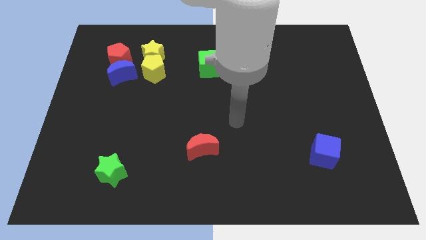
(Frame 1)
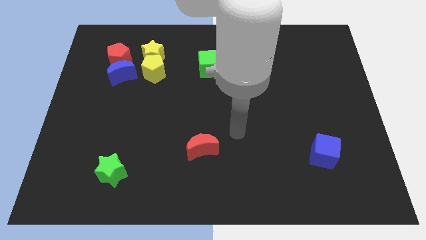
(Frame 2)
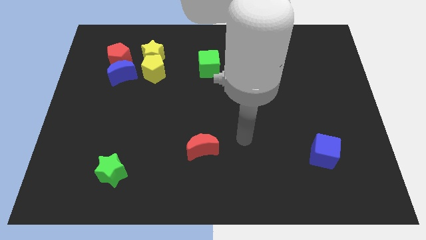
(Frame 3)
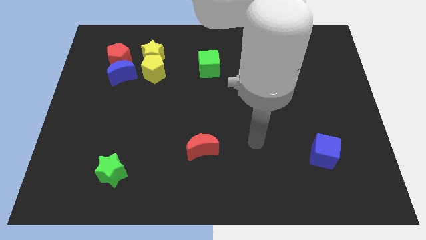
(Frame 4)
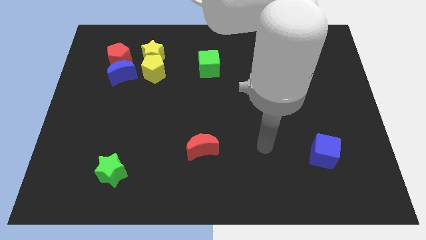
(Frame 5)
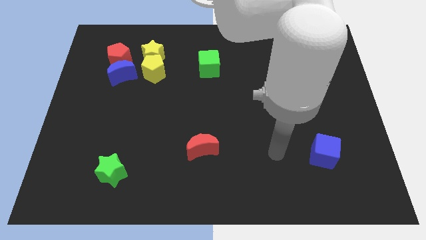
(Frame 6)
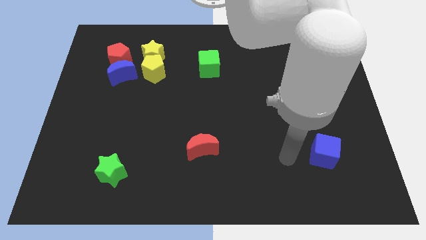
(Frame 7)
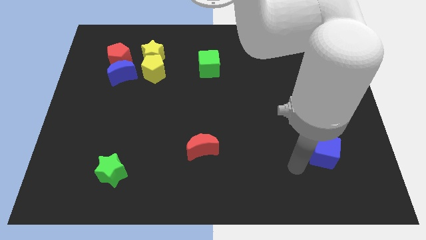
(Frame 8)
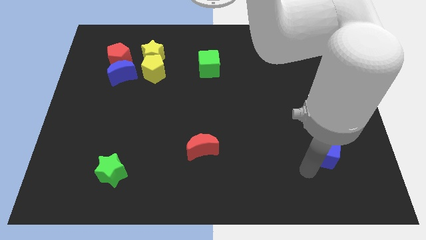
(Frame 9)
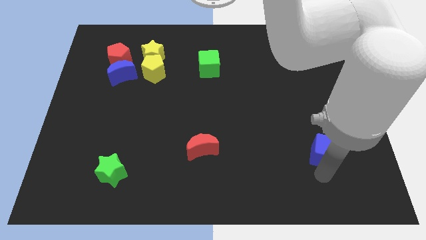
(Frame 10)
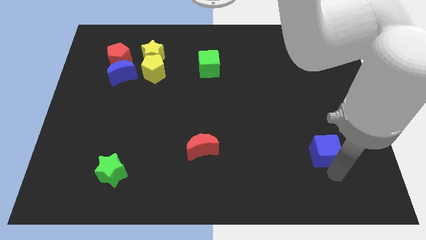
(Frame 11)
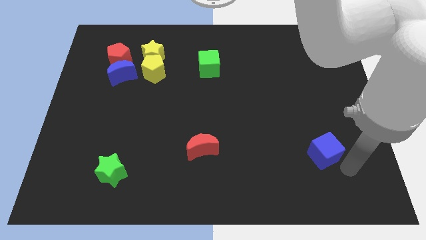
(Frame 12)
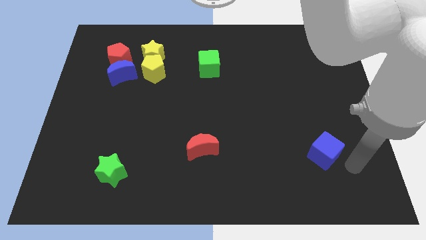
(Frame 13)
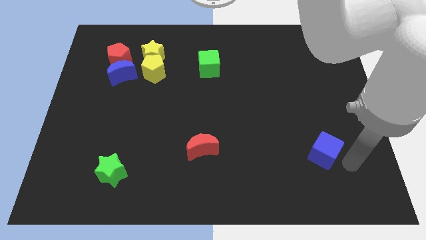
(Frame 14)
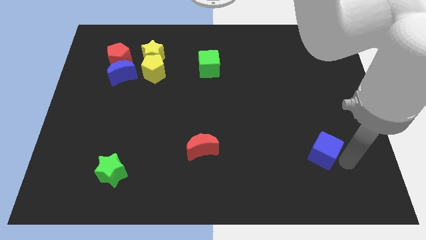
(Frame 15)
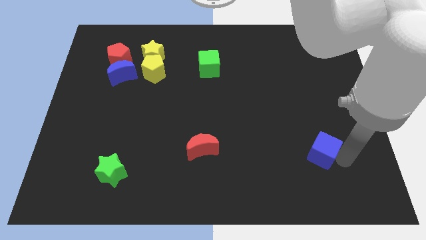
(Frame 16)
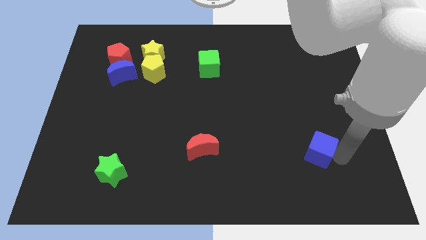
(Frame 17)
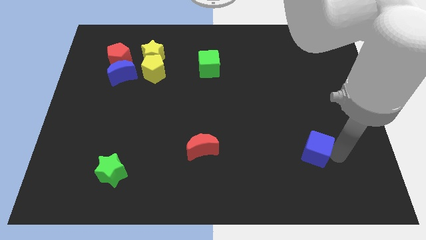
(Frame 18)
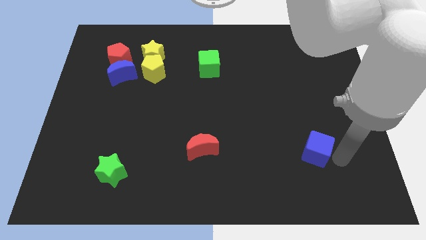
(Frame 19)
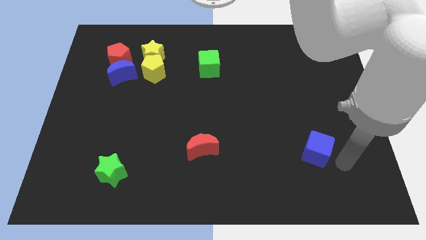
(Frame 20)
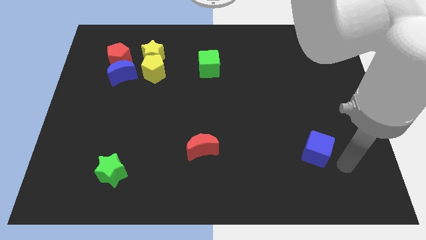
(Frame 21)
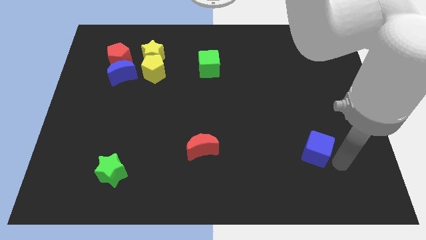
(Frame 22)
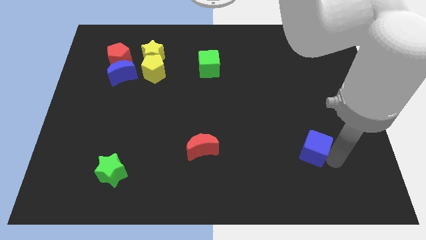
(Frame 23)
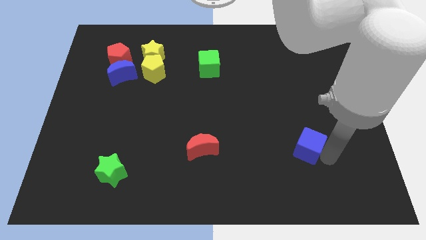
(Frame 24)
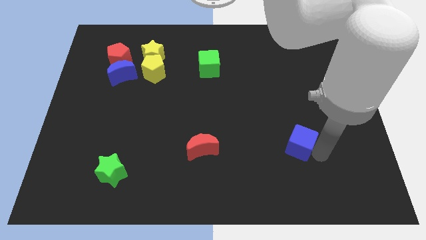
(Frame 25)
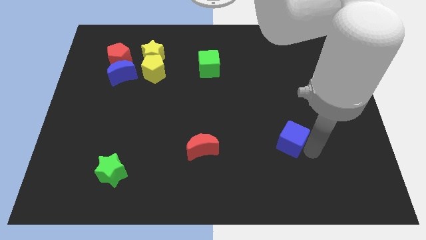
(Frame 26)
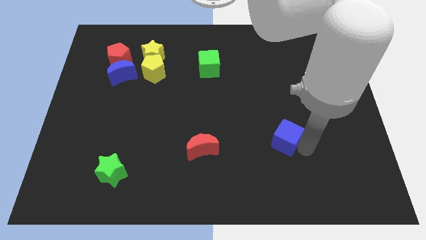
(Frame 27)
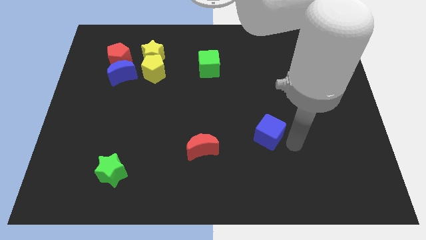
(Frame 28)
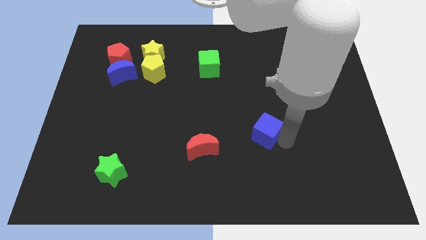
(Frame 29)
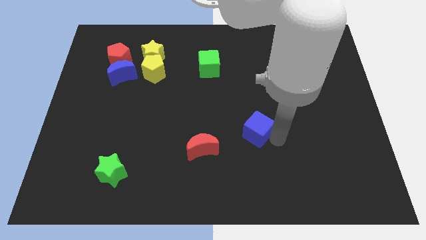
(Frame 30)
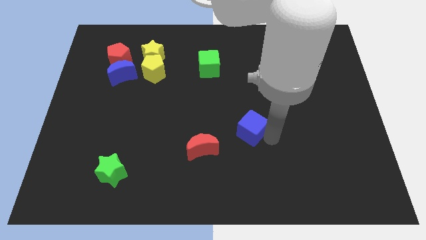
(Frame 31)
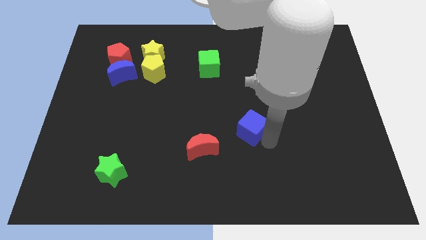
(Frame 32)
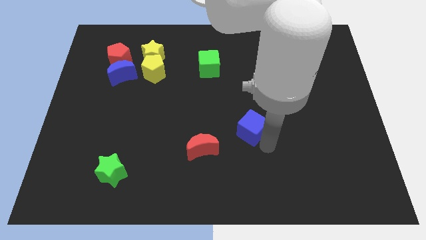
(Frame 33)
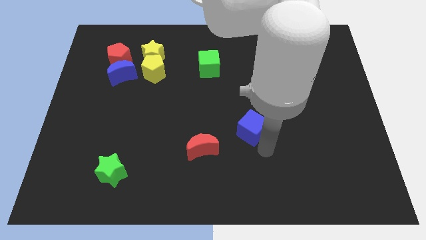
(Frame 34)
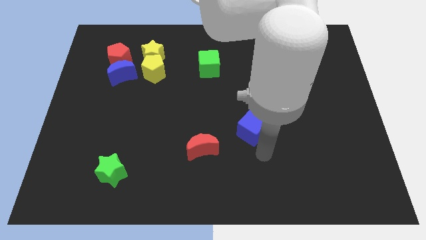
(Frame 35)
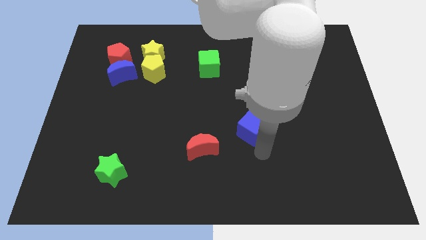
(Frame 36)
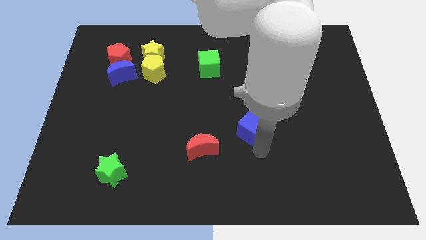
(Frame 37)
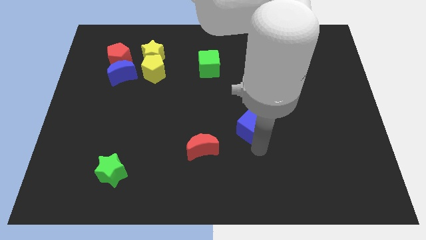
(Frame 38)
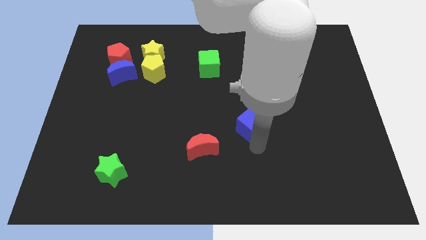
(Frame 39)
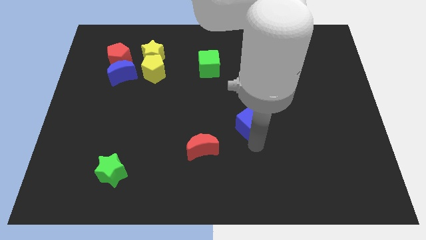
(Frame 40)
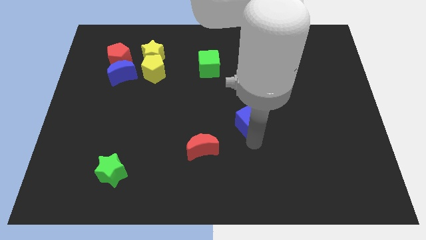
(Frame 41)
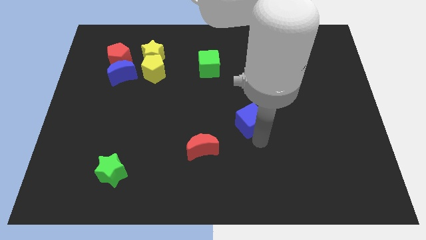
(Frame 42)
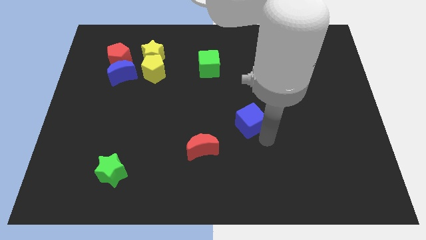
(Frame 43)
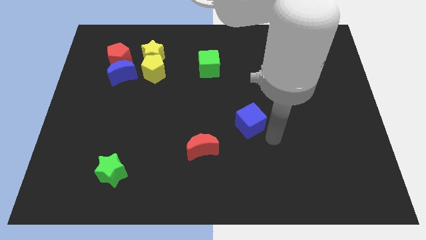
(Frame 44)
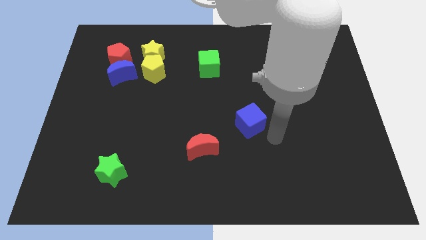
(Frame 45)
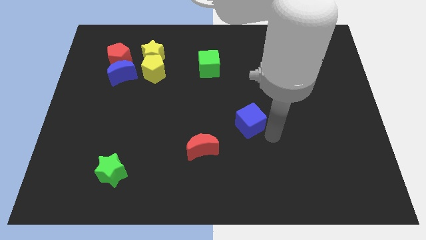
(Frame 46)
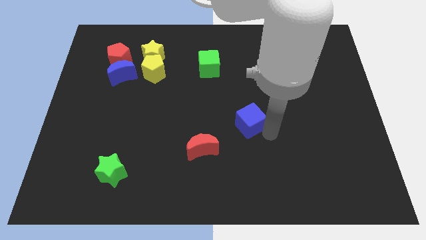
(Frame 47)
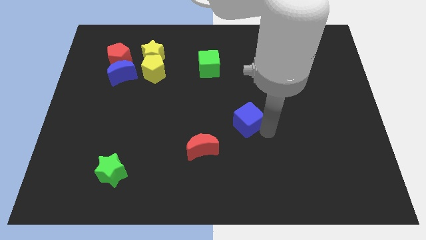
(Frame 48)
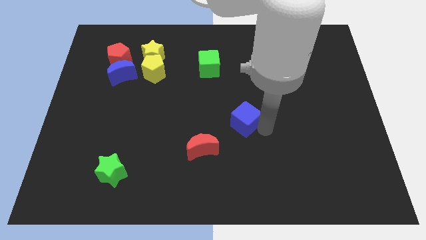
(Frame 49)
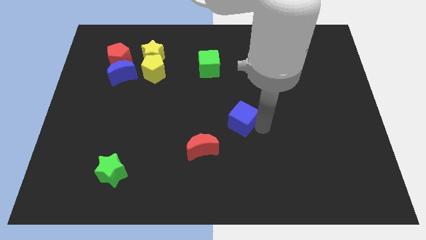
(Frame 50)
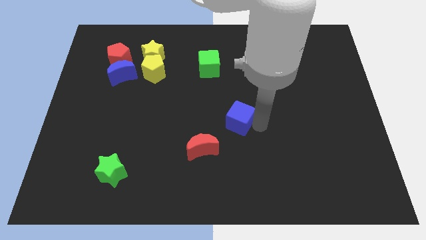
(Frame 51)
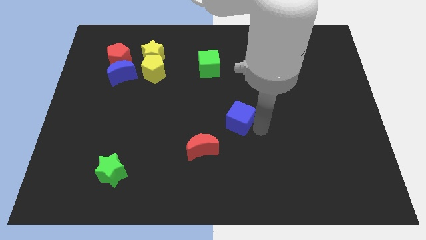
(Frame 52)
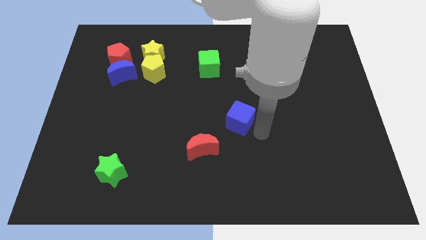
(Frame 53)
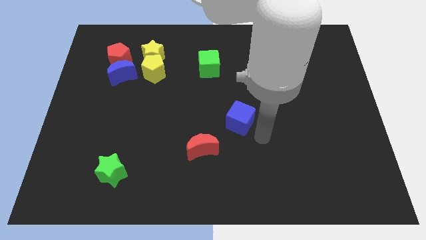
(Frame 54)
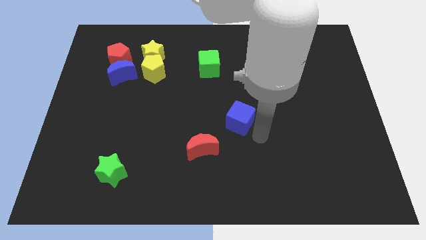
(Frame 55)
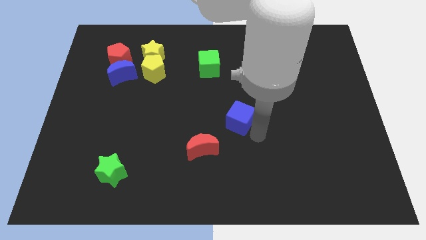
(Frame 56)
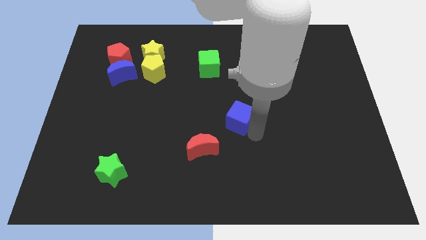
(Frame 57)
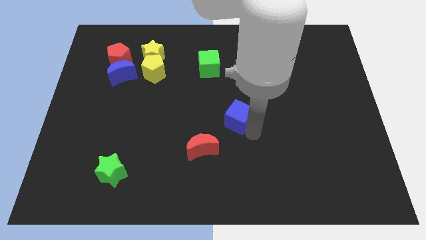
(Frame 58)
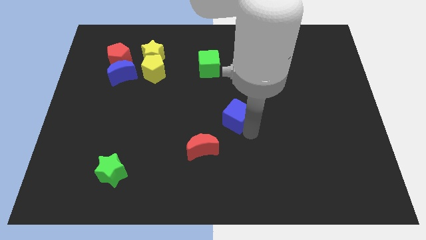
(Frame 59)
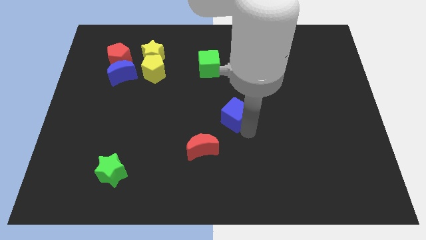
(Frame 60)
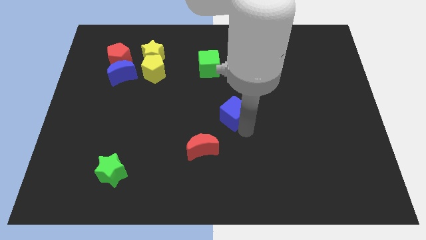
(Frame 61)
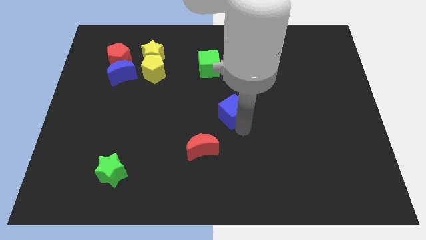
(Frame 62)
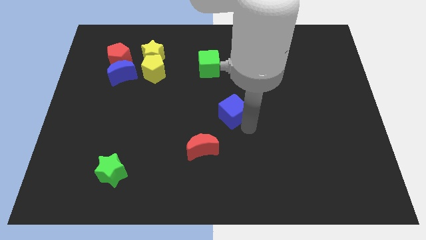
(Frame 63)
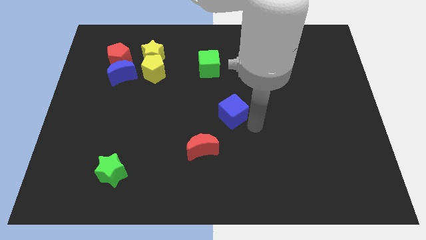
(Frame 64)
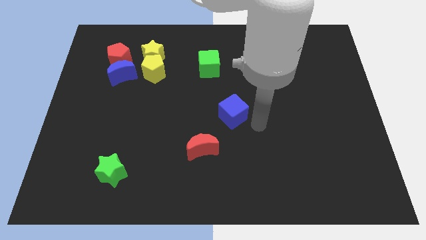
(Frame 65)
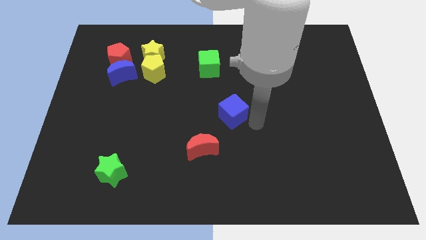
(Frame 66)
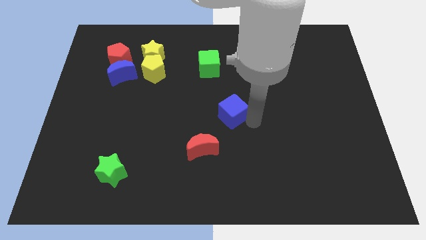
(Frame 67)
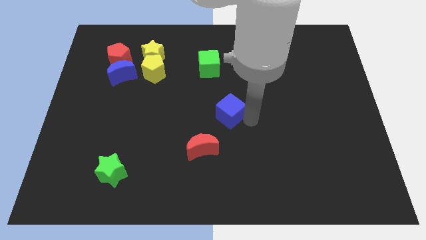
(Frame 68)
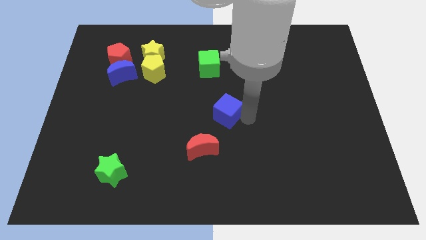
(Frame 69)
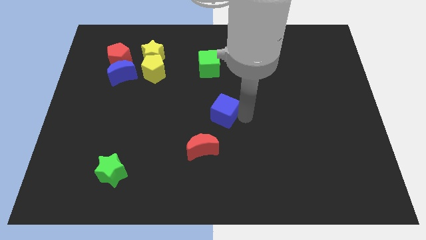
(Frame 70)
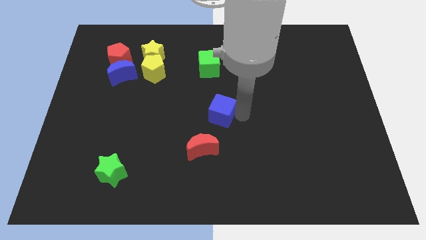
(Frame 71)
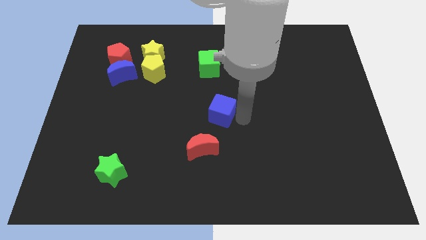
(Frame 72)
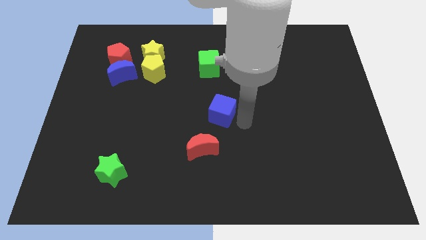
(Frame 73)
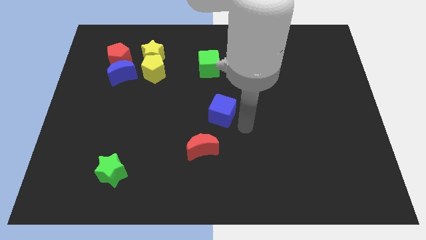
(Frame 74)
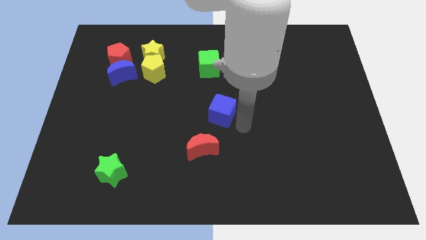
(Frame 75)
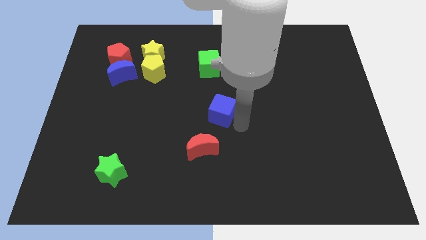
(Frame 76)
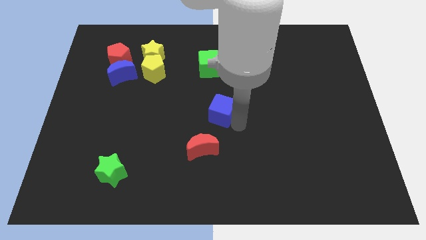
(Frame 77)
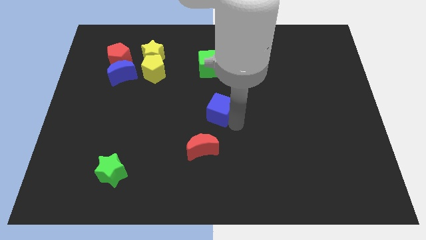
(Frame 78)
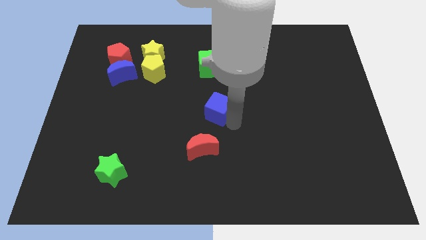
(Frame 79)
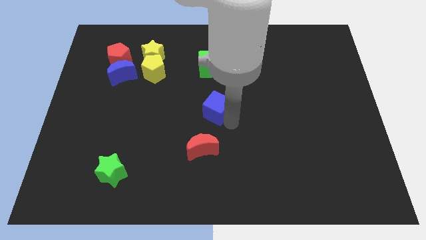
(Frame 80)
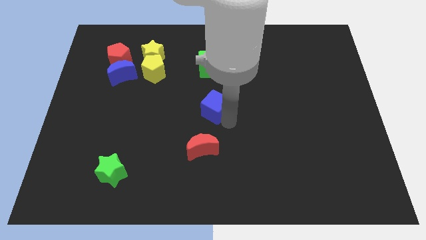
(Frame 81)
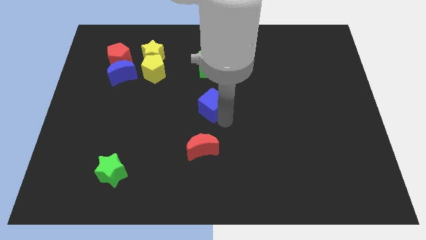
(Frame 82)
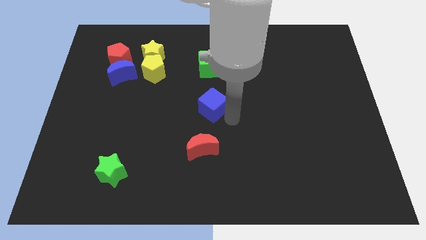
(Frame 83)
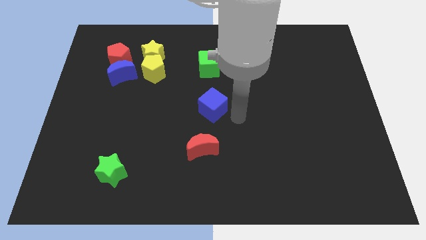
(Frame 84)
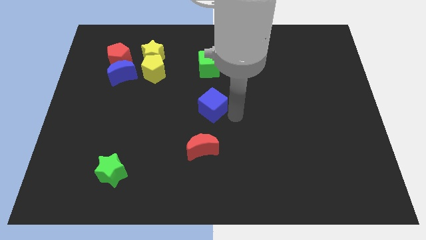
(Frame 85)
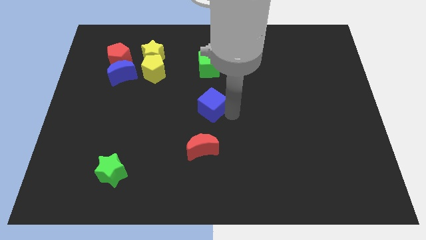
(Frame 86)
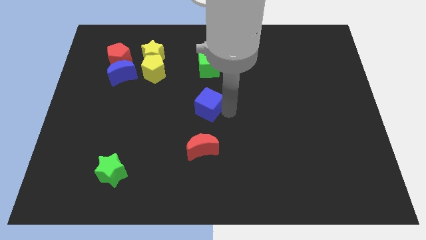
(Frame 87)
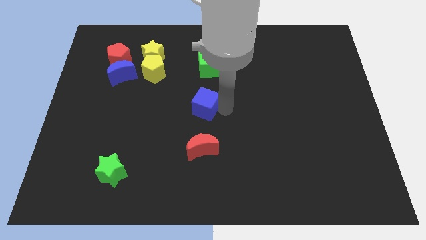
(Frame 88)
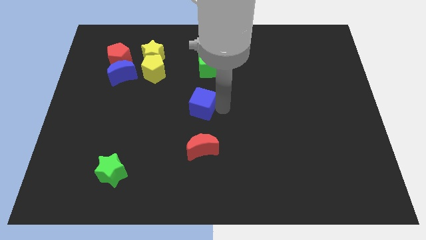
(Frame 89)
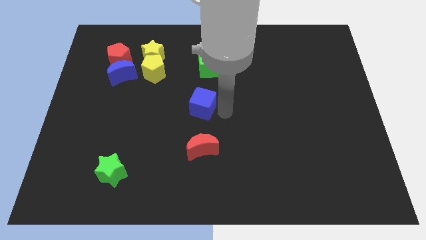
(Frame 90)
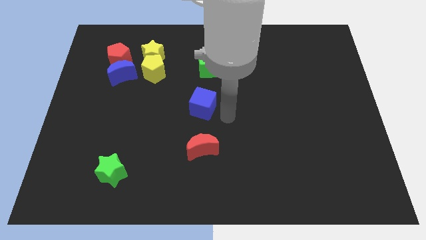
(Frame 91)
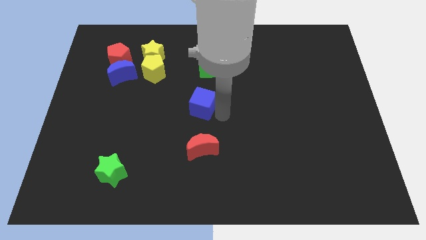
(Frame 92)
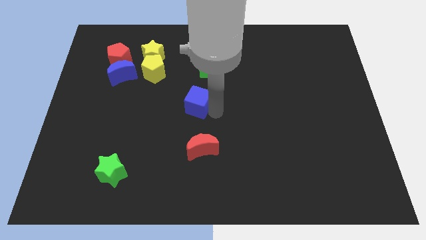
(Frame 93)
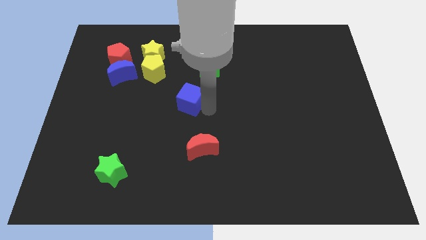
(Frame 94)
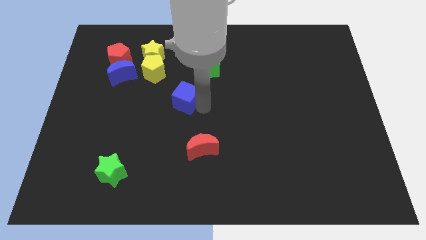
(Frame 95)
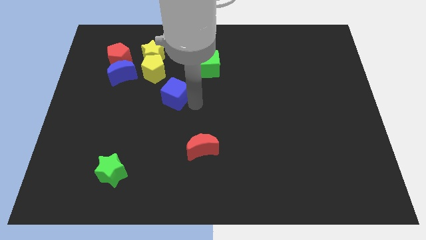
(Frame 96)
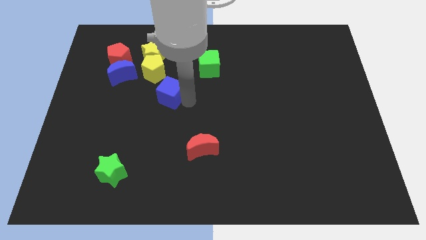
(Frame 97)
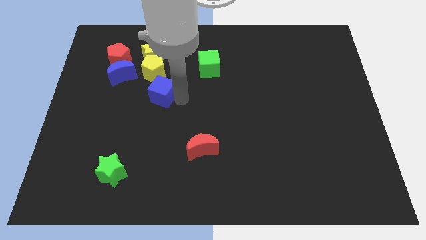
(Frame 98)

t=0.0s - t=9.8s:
put the blue cube below the yellow star
